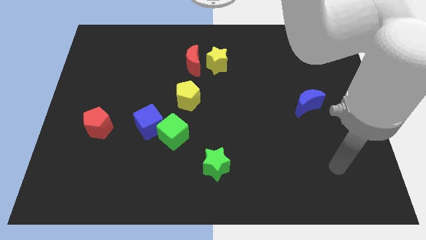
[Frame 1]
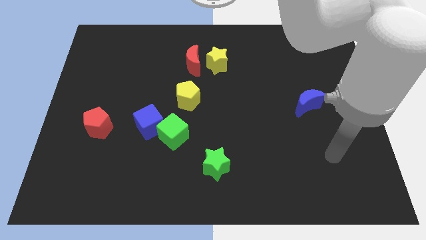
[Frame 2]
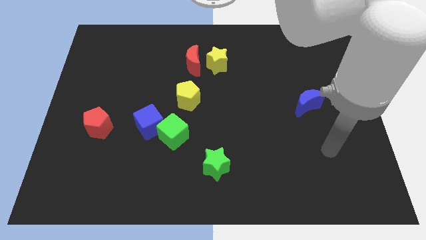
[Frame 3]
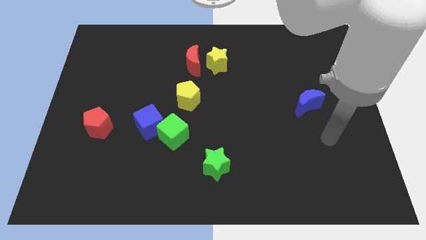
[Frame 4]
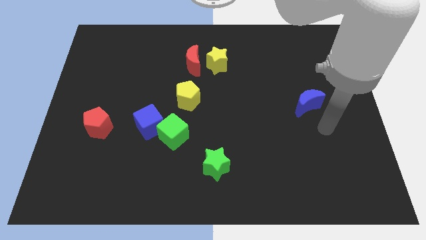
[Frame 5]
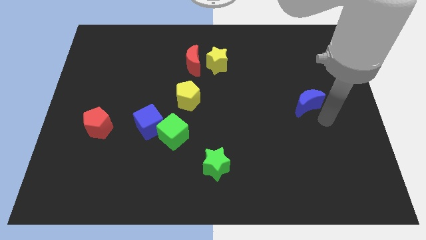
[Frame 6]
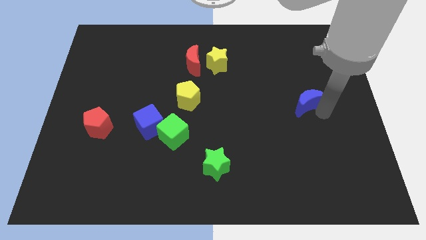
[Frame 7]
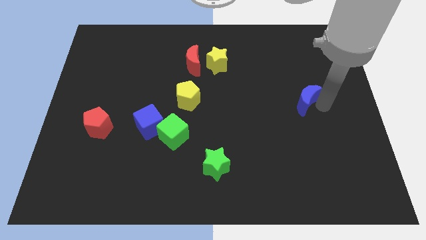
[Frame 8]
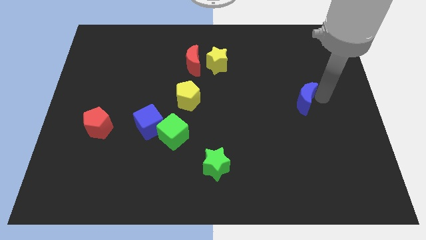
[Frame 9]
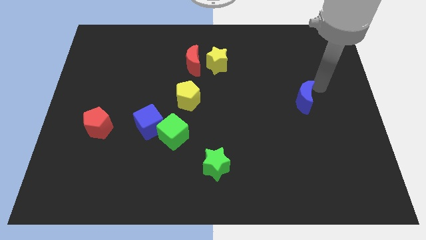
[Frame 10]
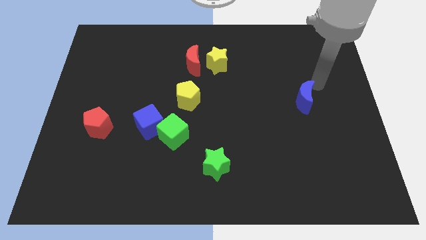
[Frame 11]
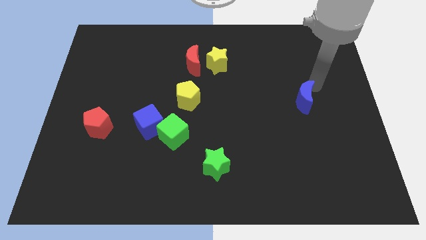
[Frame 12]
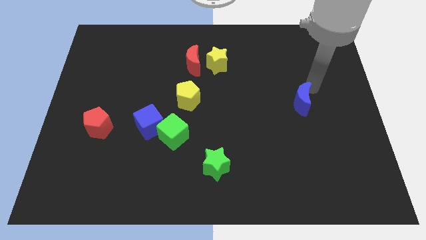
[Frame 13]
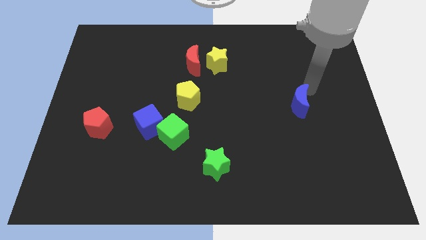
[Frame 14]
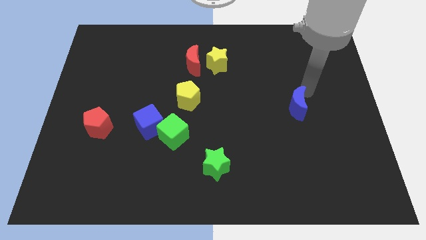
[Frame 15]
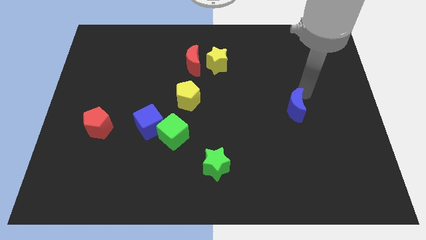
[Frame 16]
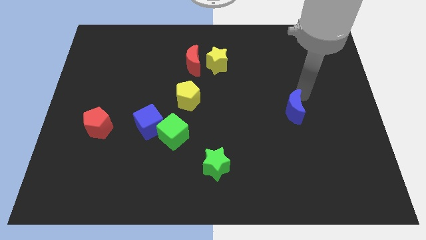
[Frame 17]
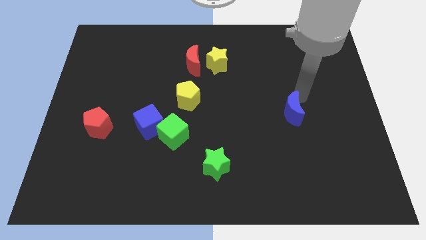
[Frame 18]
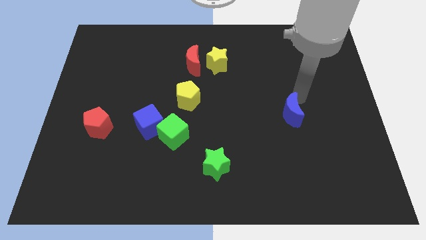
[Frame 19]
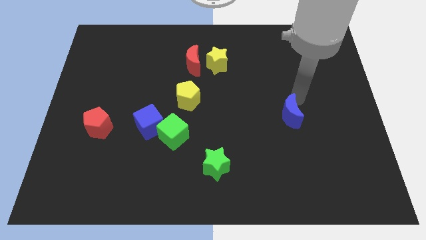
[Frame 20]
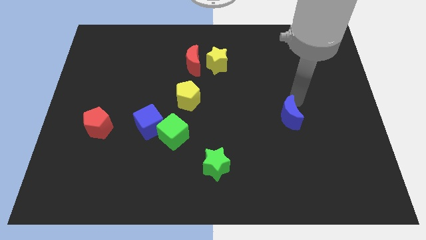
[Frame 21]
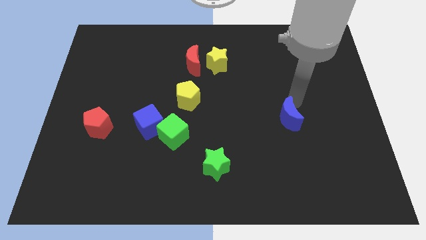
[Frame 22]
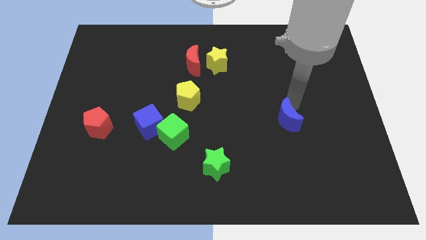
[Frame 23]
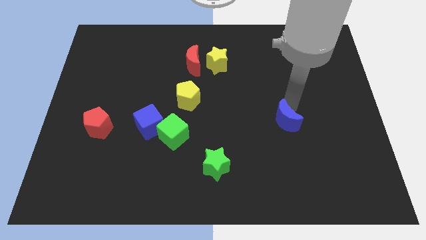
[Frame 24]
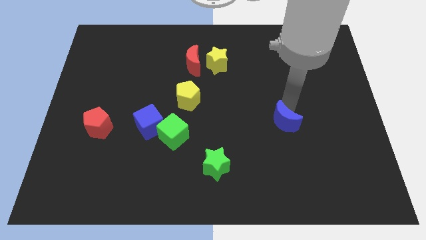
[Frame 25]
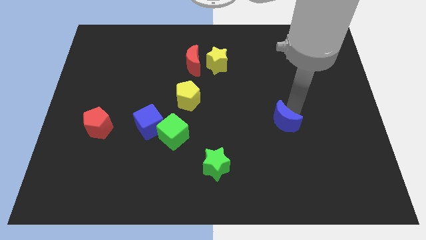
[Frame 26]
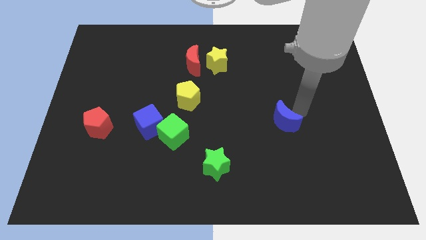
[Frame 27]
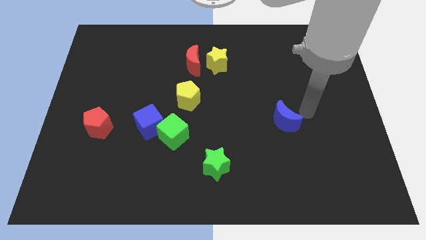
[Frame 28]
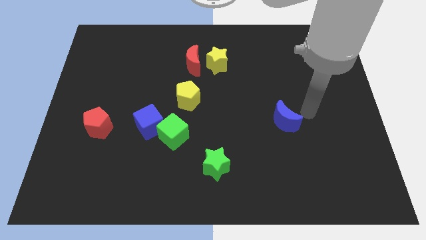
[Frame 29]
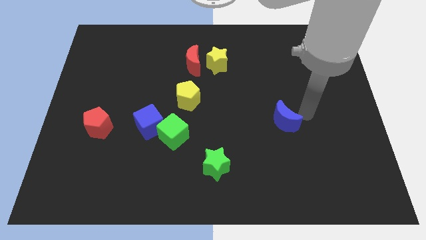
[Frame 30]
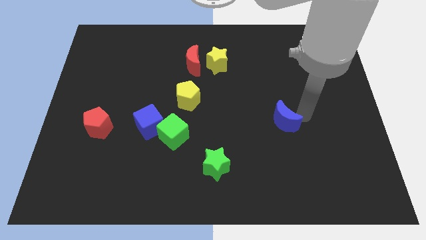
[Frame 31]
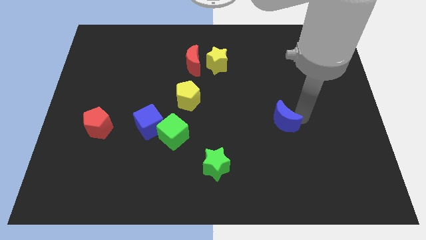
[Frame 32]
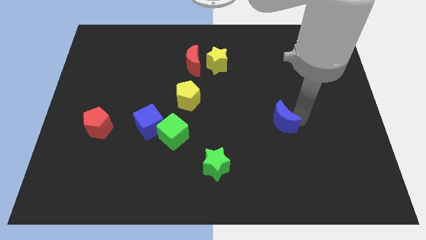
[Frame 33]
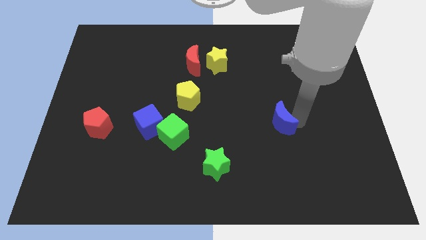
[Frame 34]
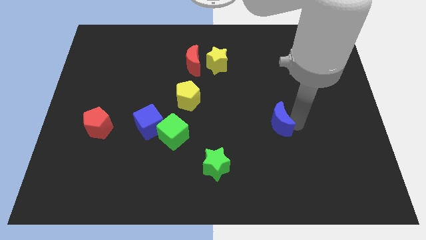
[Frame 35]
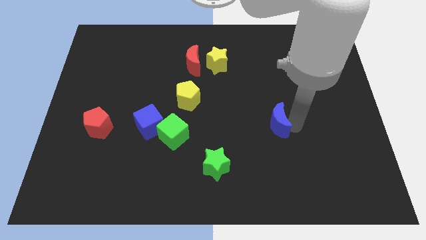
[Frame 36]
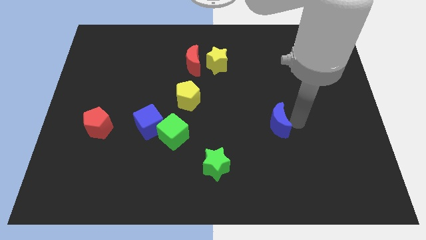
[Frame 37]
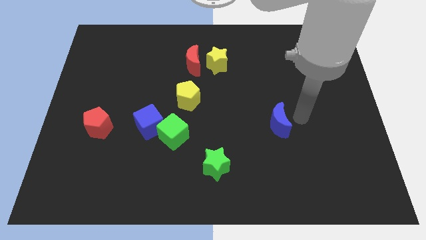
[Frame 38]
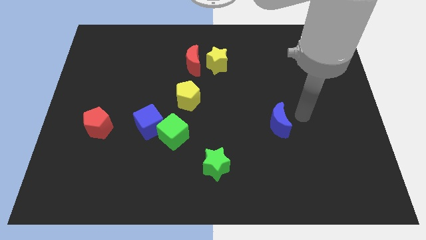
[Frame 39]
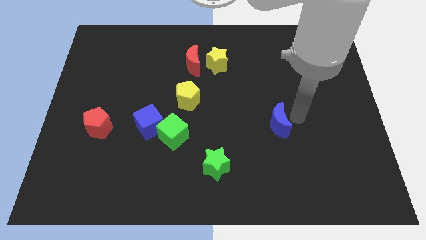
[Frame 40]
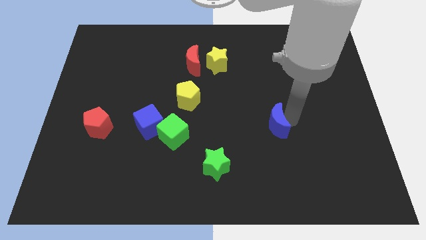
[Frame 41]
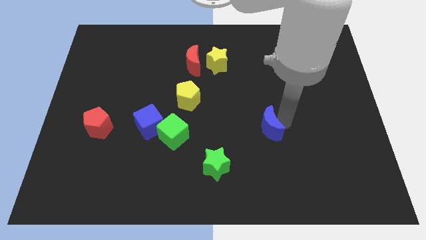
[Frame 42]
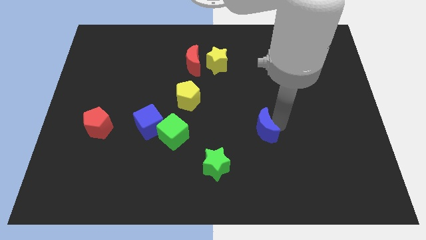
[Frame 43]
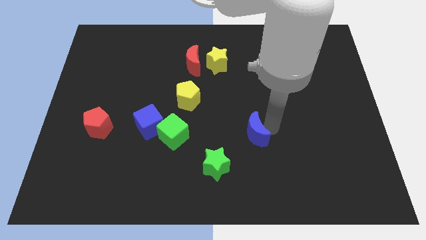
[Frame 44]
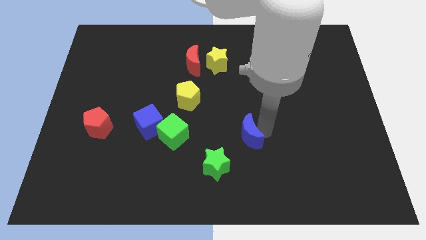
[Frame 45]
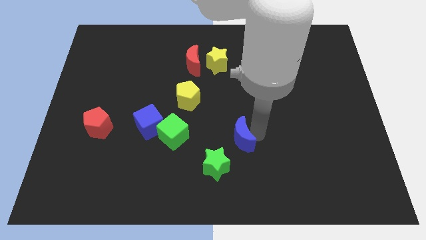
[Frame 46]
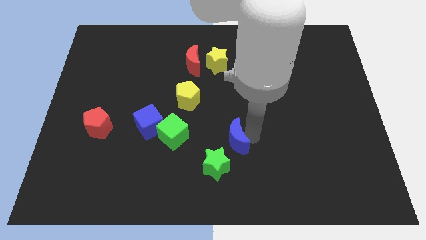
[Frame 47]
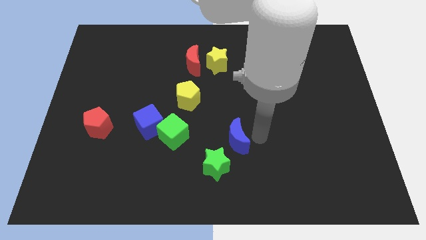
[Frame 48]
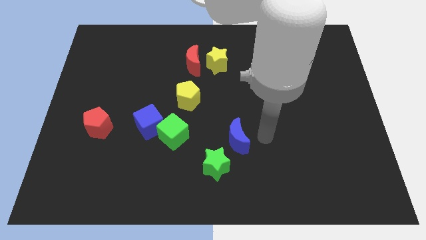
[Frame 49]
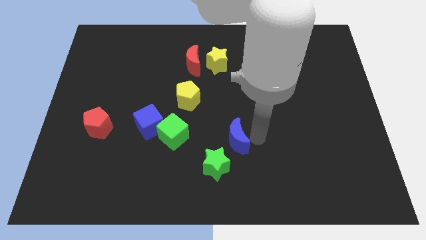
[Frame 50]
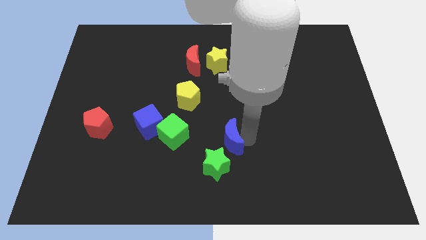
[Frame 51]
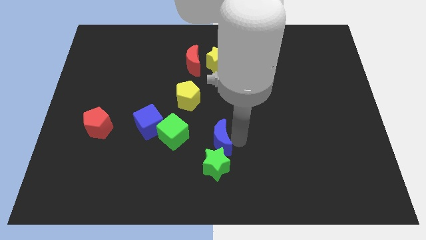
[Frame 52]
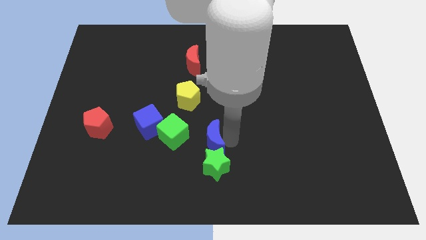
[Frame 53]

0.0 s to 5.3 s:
put the blue moon to the top left of the green star
